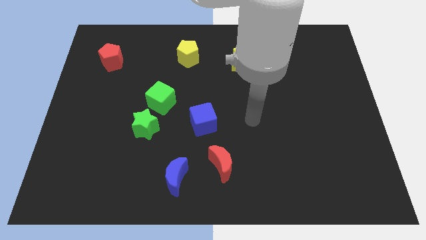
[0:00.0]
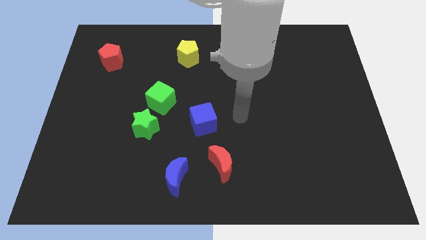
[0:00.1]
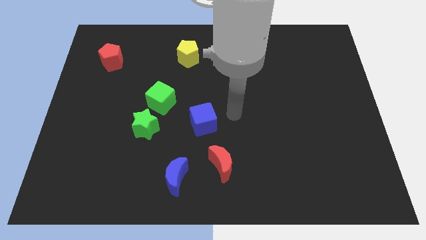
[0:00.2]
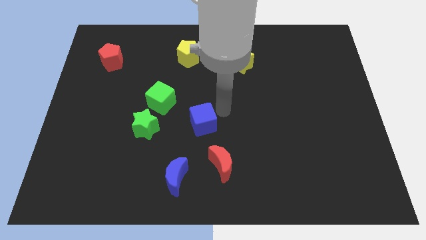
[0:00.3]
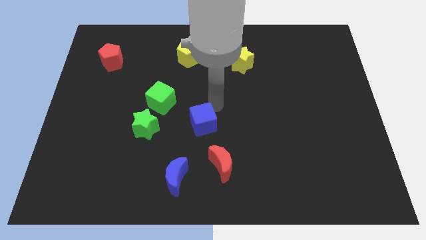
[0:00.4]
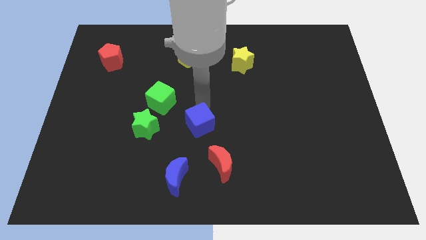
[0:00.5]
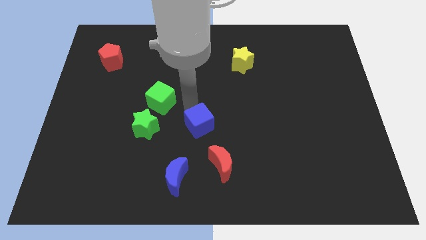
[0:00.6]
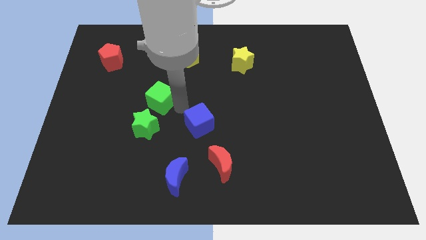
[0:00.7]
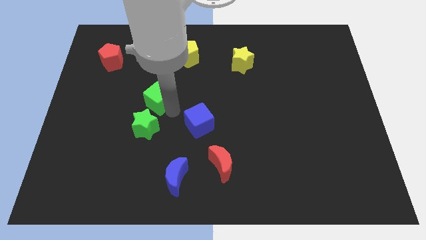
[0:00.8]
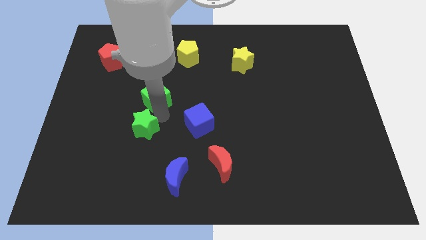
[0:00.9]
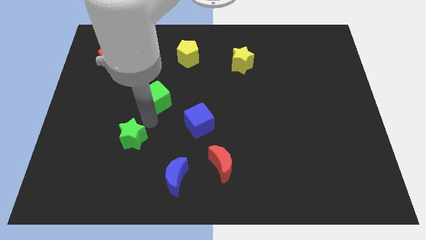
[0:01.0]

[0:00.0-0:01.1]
pull the green cube apart from the green star

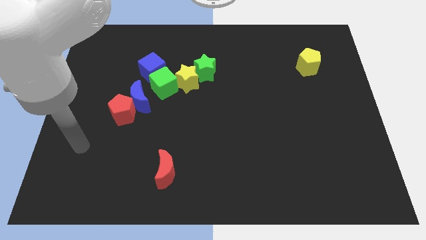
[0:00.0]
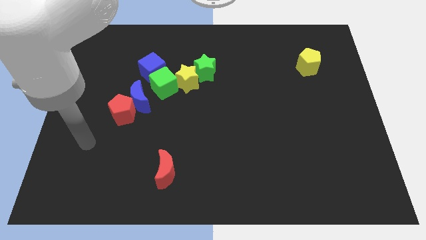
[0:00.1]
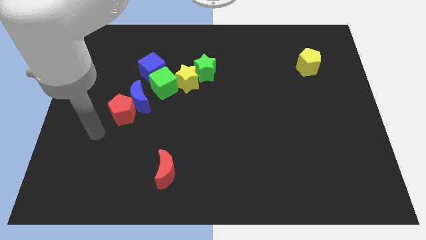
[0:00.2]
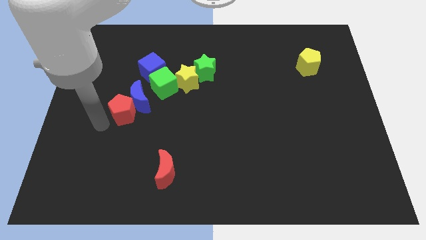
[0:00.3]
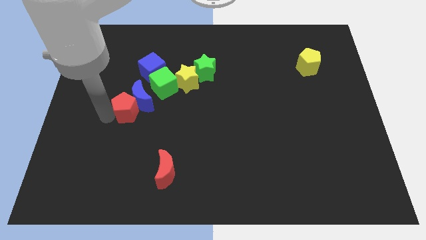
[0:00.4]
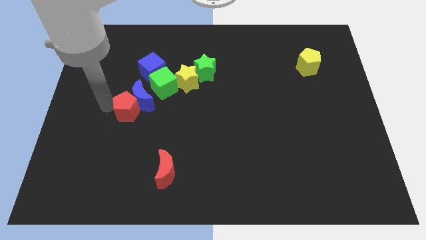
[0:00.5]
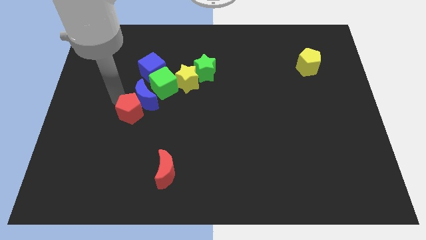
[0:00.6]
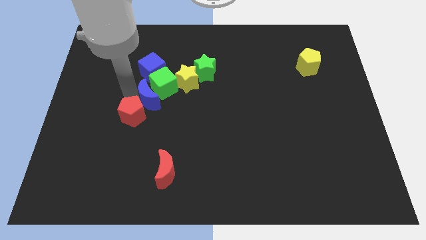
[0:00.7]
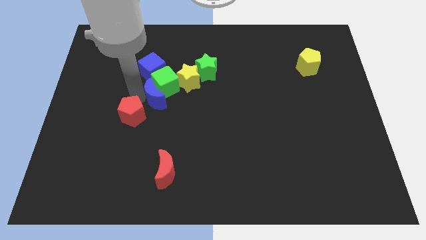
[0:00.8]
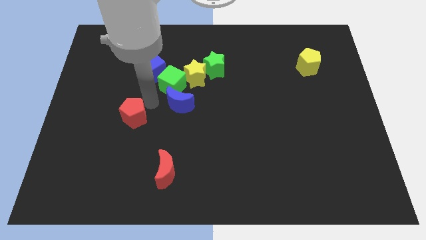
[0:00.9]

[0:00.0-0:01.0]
move the red pentagon away from the blue moon

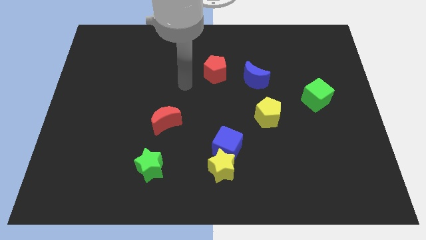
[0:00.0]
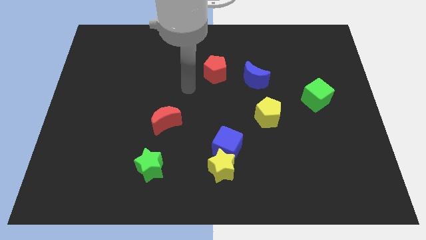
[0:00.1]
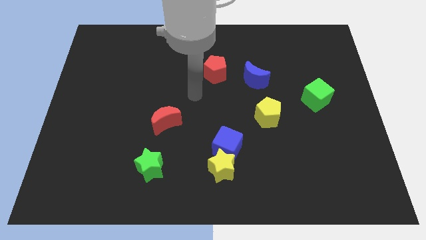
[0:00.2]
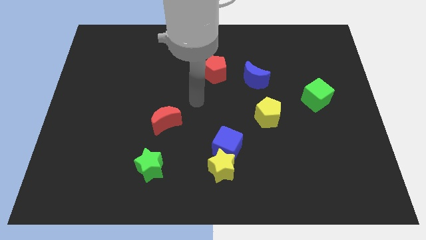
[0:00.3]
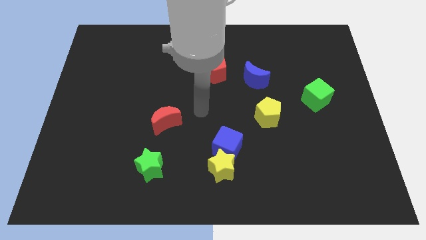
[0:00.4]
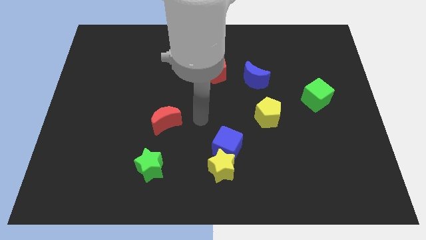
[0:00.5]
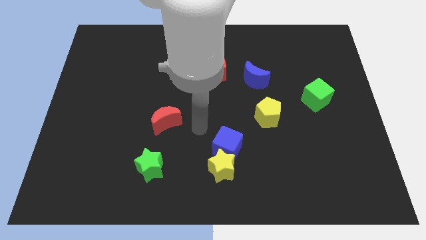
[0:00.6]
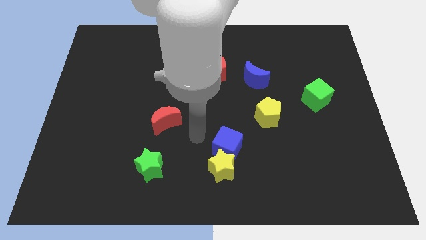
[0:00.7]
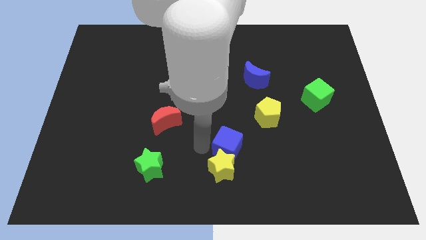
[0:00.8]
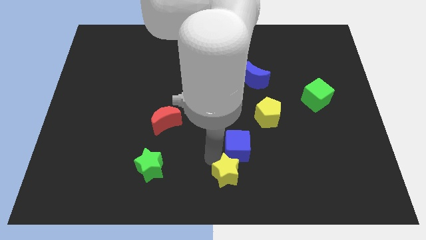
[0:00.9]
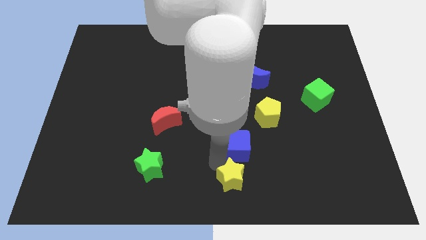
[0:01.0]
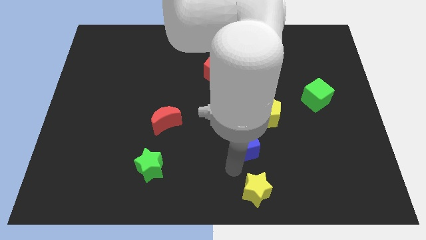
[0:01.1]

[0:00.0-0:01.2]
move the blue cube away from the yellow star

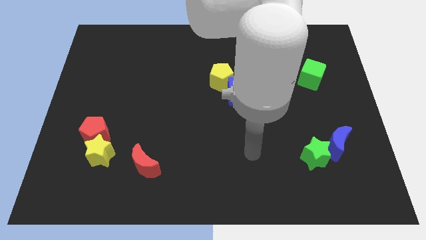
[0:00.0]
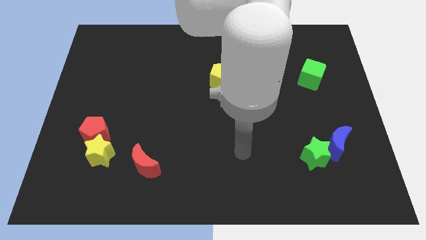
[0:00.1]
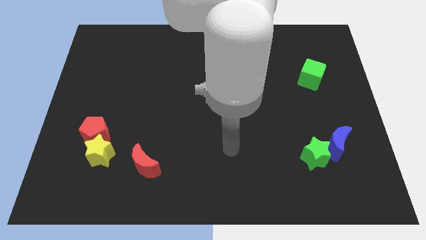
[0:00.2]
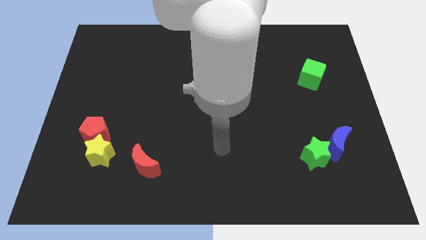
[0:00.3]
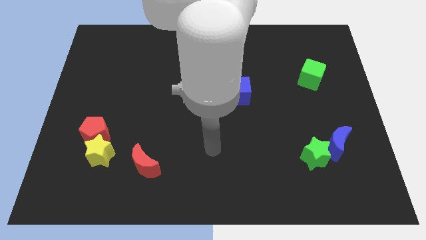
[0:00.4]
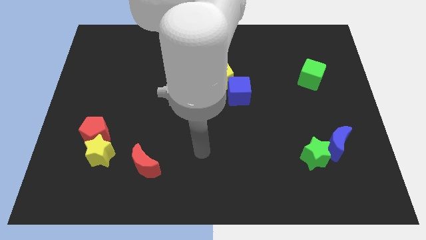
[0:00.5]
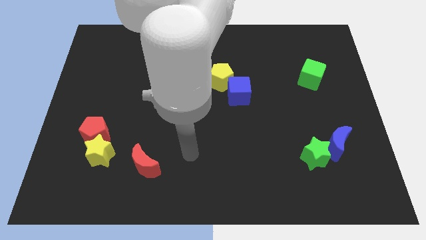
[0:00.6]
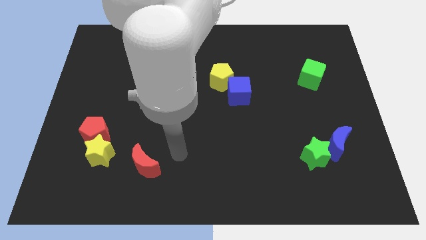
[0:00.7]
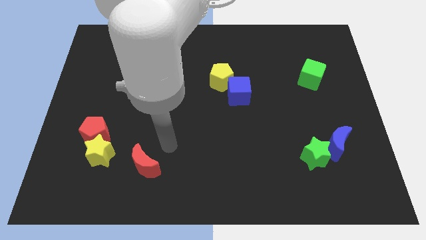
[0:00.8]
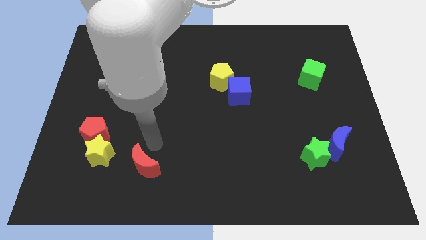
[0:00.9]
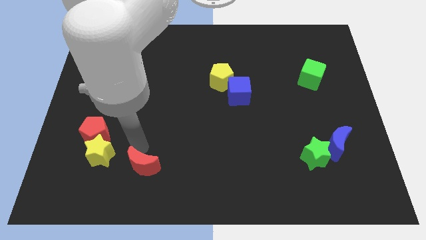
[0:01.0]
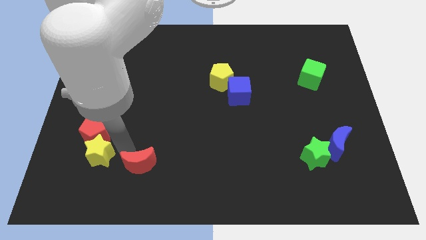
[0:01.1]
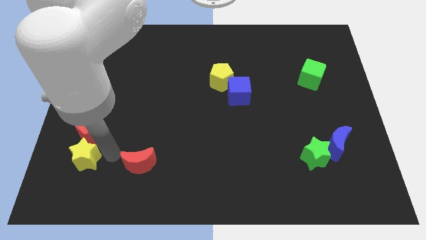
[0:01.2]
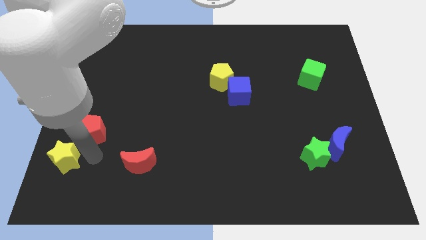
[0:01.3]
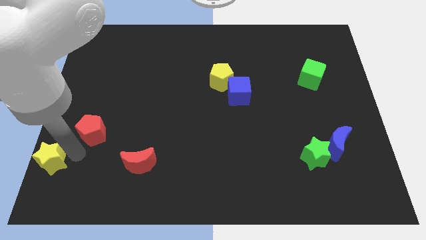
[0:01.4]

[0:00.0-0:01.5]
separate the red pentagon from the yellow star

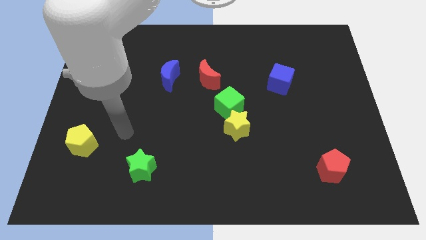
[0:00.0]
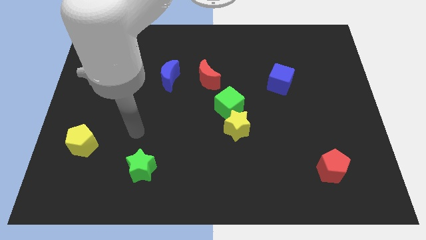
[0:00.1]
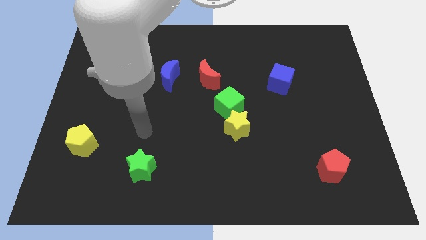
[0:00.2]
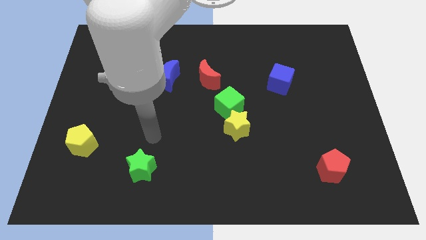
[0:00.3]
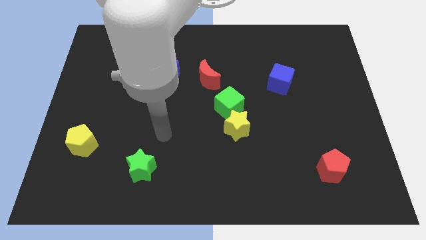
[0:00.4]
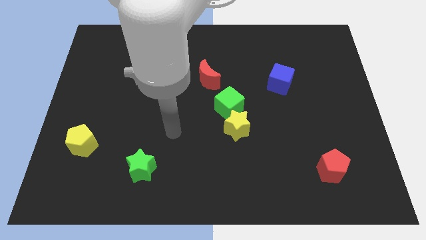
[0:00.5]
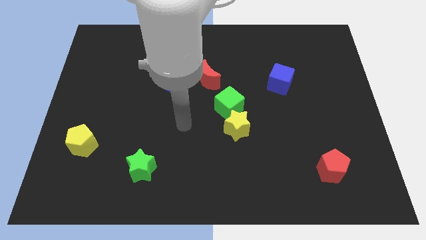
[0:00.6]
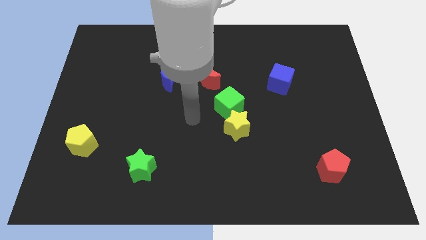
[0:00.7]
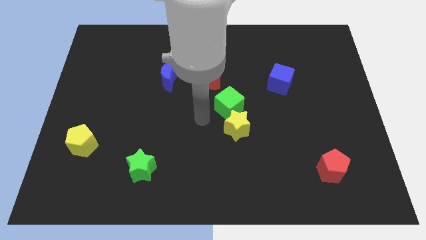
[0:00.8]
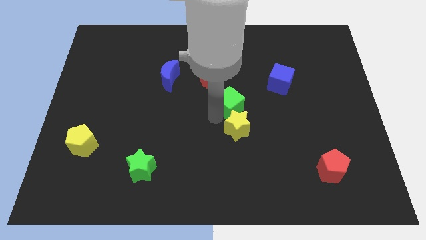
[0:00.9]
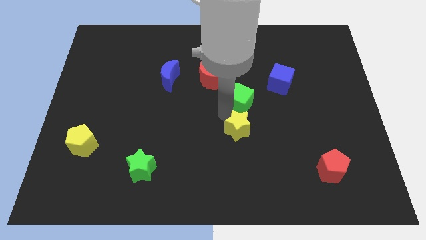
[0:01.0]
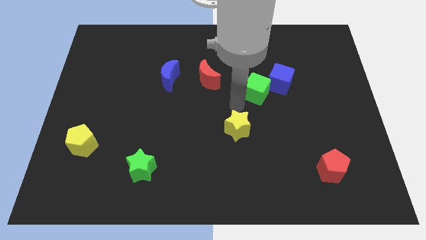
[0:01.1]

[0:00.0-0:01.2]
move the yellow star away from the green cube

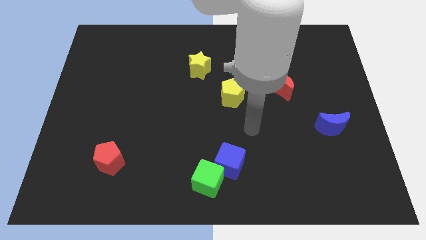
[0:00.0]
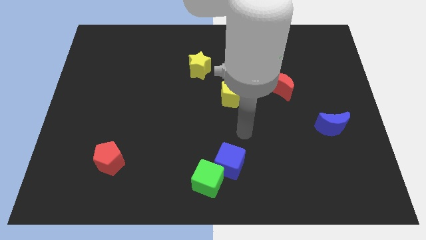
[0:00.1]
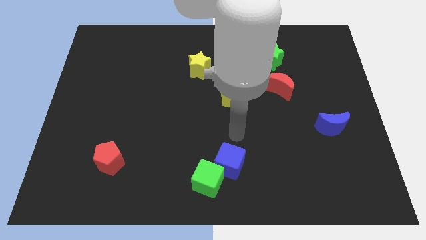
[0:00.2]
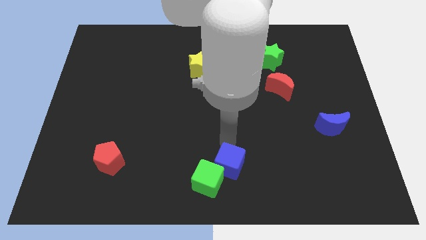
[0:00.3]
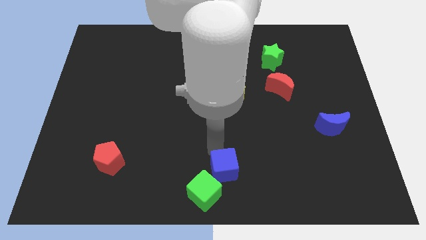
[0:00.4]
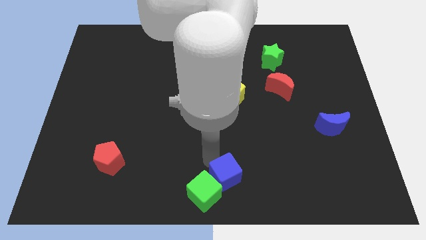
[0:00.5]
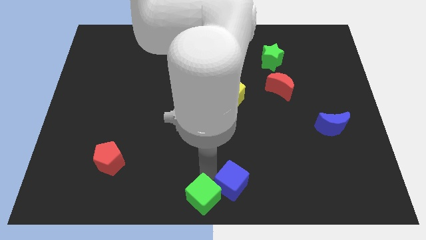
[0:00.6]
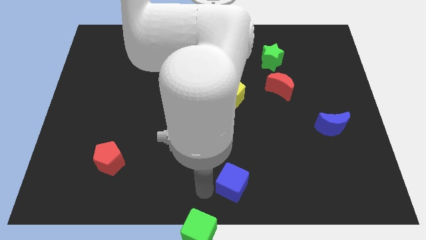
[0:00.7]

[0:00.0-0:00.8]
separate the blue cube from the green cube

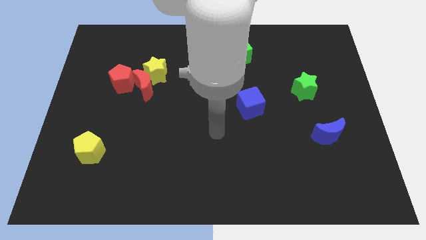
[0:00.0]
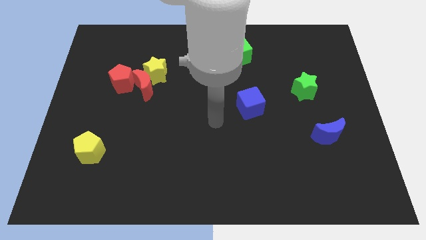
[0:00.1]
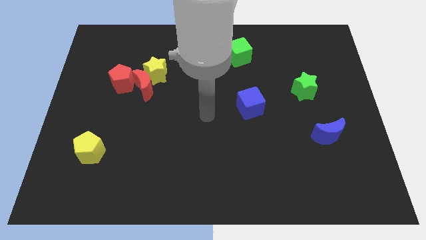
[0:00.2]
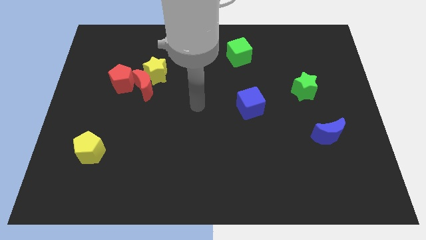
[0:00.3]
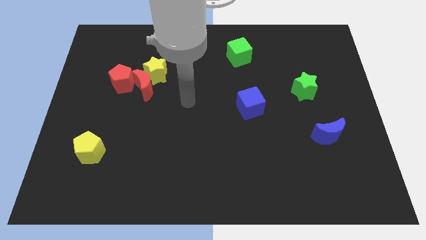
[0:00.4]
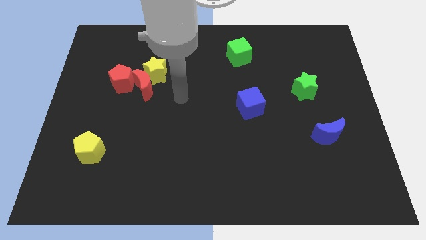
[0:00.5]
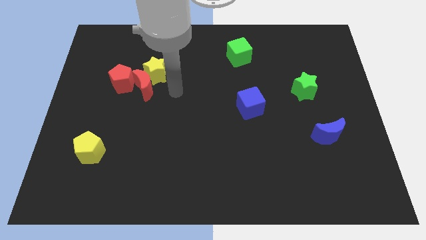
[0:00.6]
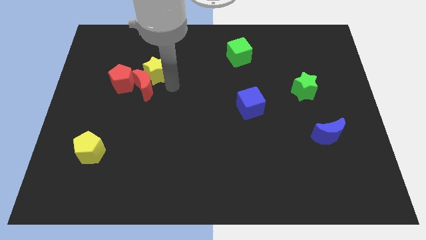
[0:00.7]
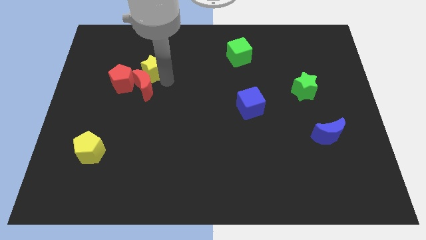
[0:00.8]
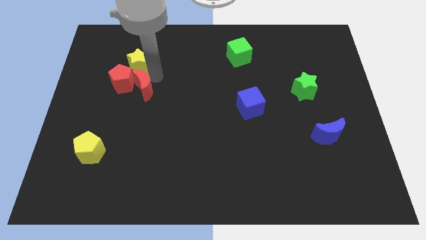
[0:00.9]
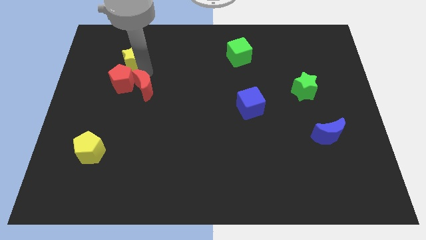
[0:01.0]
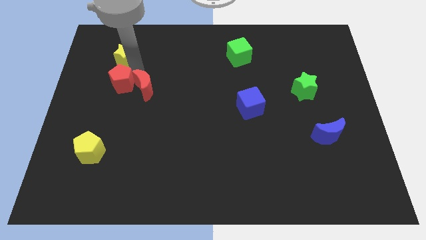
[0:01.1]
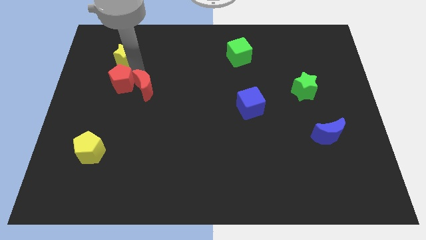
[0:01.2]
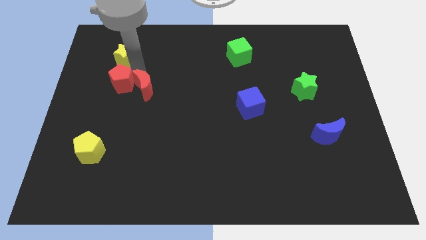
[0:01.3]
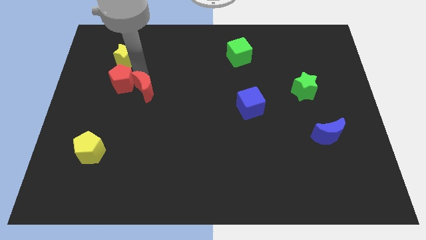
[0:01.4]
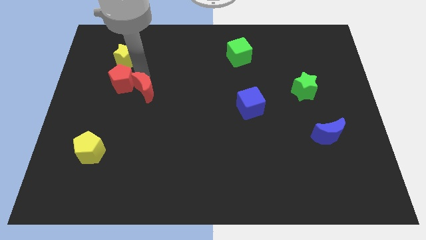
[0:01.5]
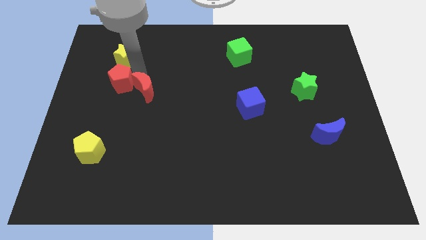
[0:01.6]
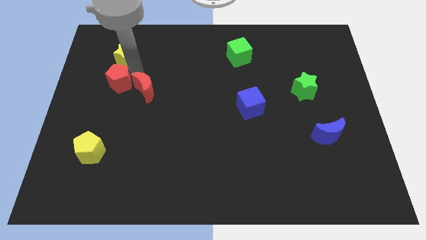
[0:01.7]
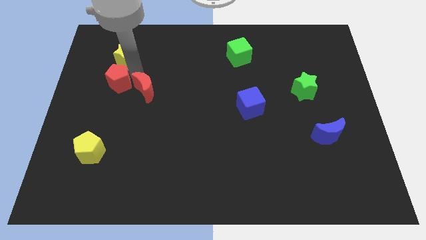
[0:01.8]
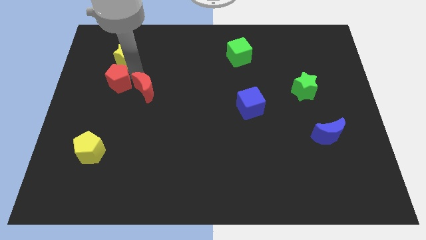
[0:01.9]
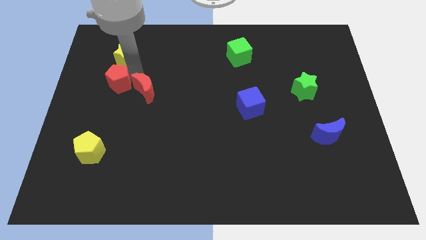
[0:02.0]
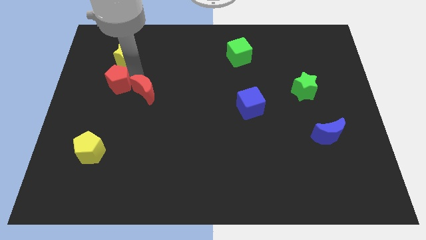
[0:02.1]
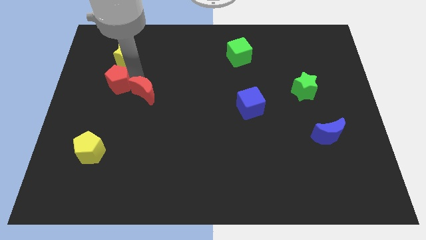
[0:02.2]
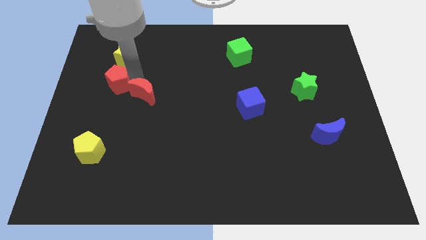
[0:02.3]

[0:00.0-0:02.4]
pull the red moon apart from the yellow star and red pentagon
